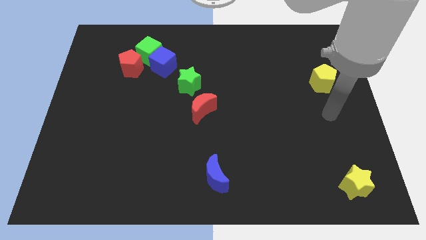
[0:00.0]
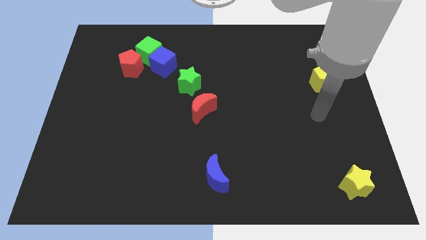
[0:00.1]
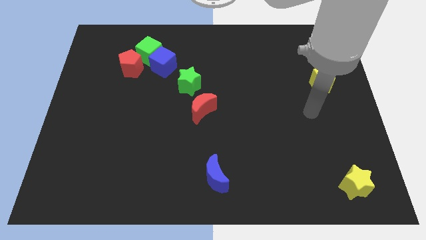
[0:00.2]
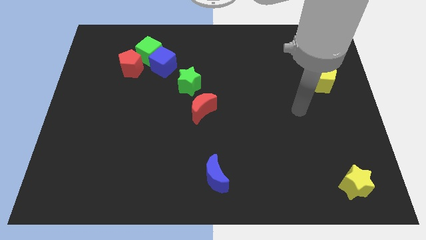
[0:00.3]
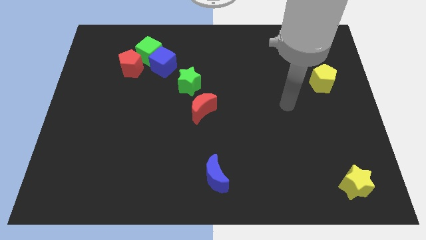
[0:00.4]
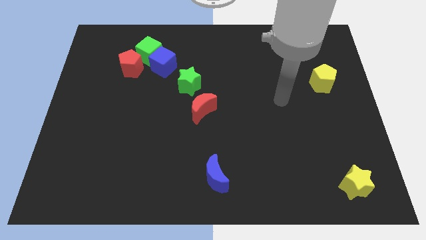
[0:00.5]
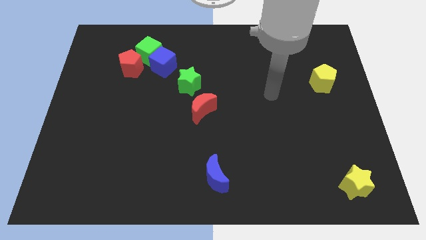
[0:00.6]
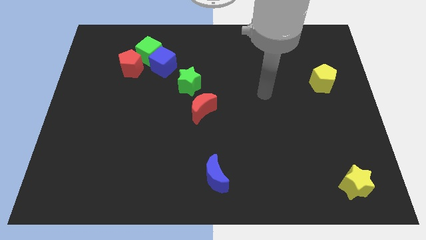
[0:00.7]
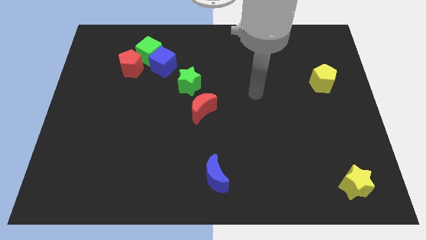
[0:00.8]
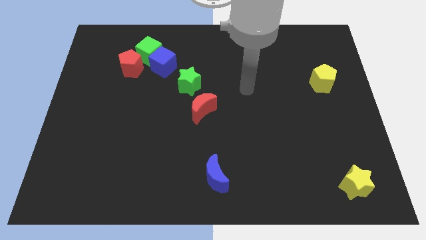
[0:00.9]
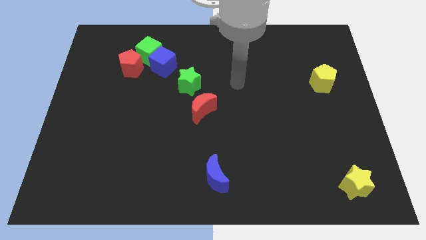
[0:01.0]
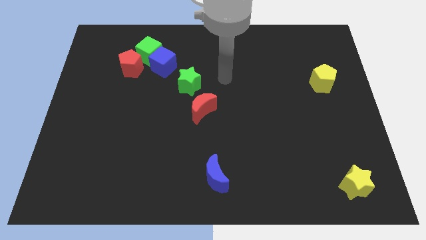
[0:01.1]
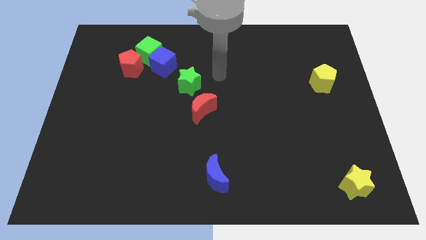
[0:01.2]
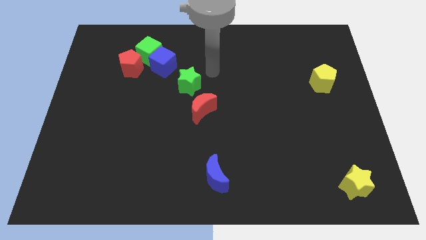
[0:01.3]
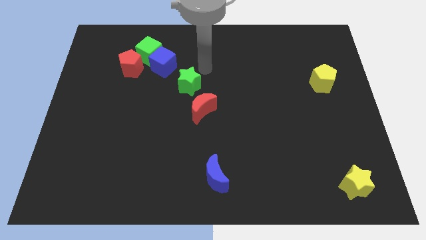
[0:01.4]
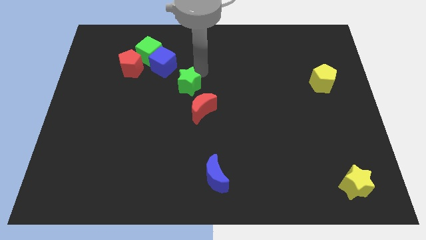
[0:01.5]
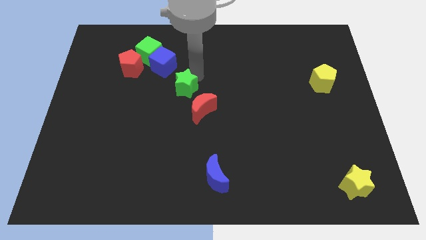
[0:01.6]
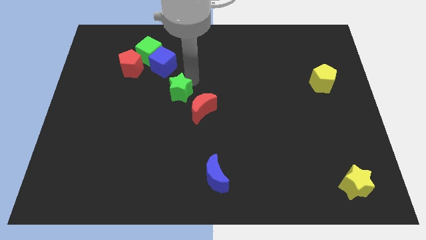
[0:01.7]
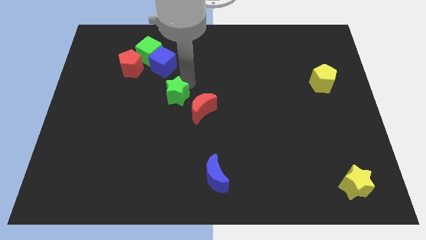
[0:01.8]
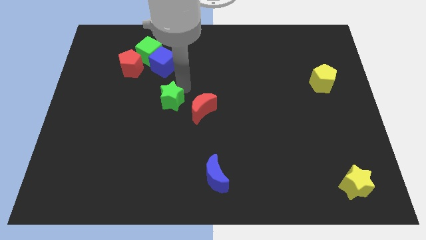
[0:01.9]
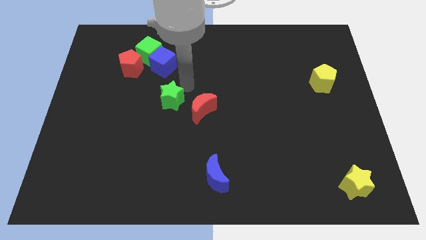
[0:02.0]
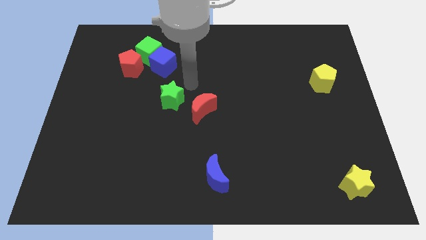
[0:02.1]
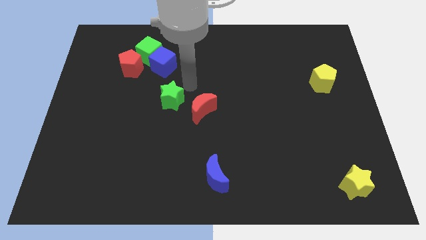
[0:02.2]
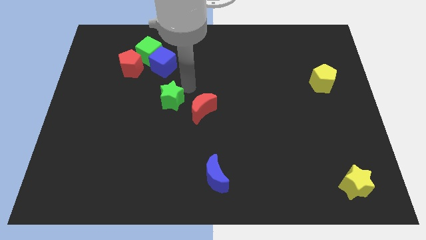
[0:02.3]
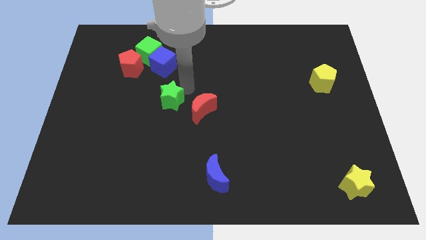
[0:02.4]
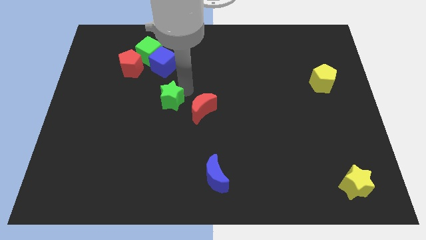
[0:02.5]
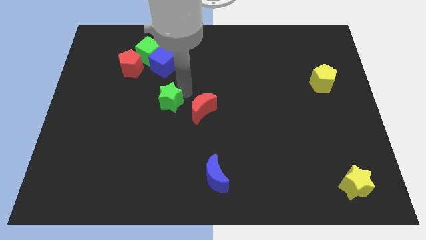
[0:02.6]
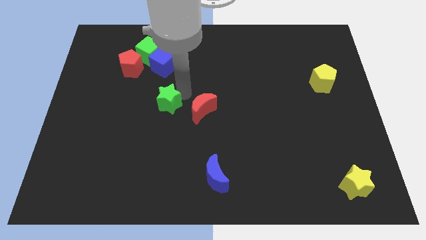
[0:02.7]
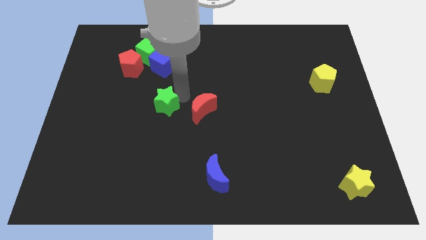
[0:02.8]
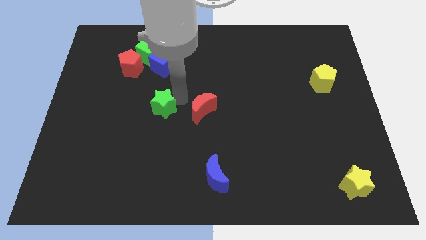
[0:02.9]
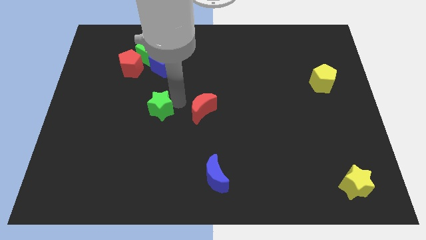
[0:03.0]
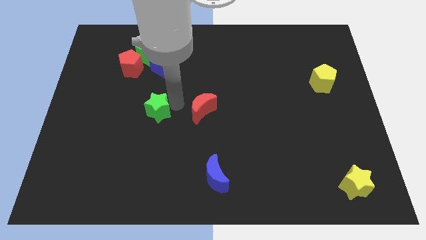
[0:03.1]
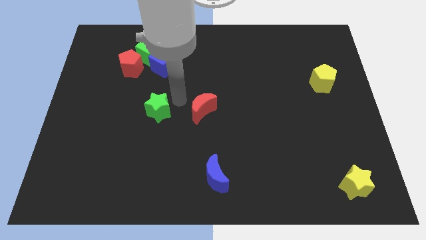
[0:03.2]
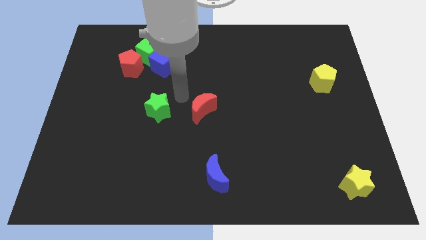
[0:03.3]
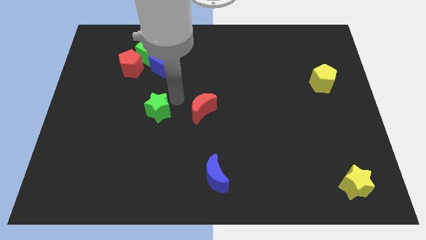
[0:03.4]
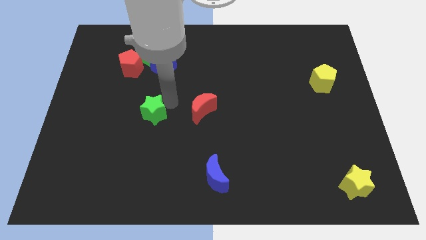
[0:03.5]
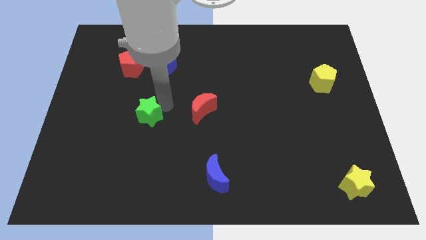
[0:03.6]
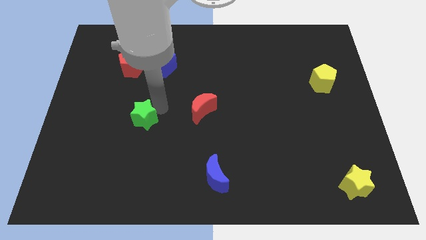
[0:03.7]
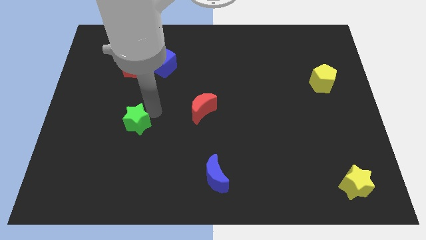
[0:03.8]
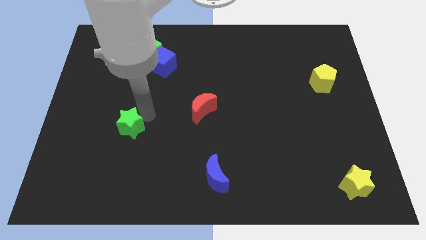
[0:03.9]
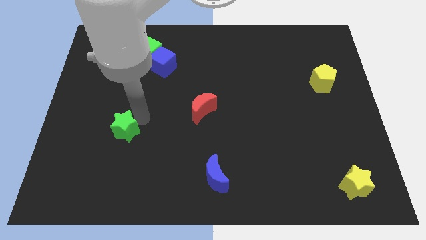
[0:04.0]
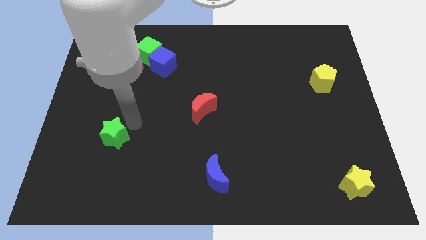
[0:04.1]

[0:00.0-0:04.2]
push the green star diagonally downwards and to the left

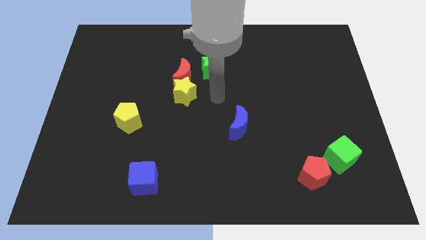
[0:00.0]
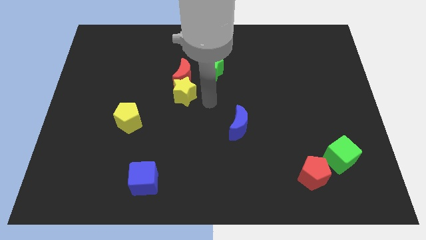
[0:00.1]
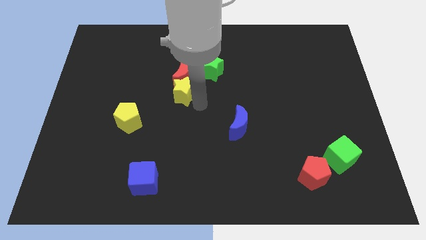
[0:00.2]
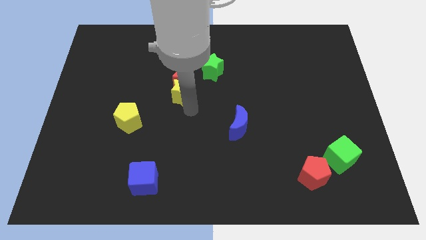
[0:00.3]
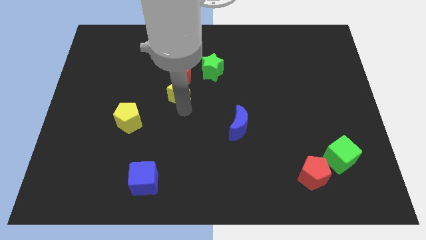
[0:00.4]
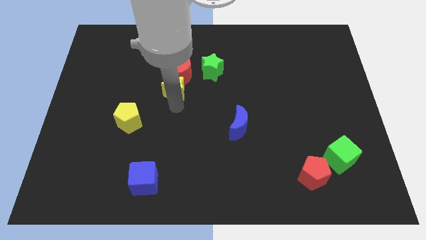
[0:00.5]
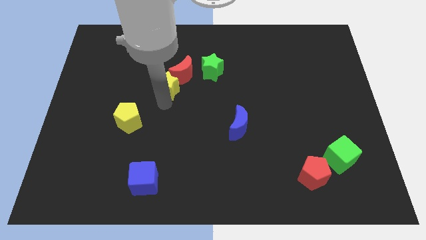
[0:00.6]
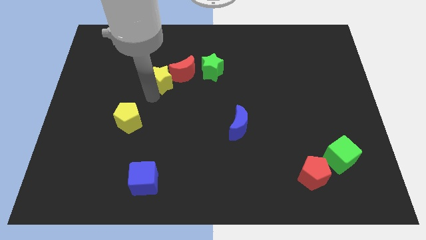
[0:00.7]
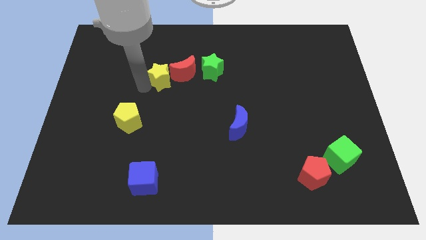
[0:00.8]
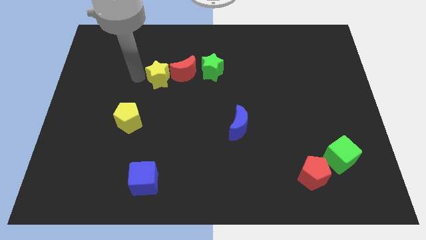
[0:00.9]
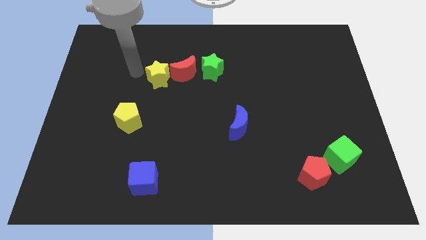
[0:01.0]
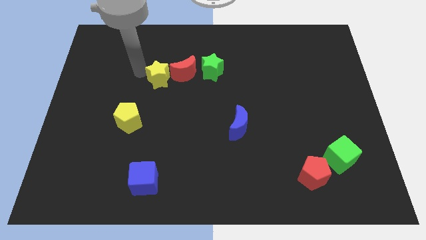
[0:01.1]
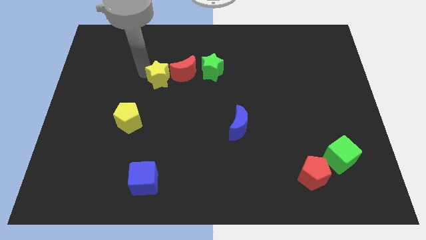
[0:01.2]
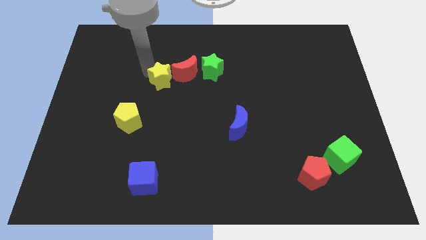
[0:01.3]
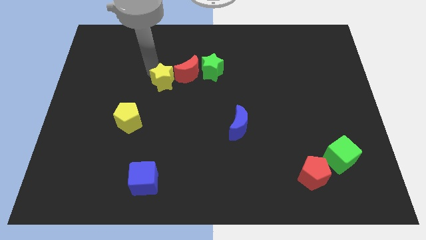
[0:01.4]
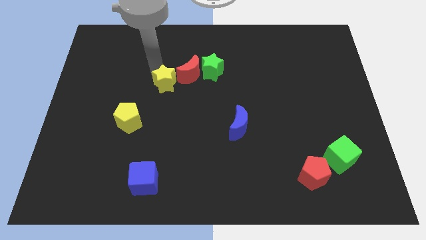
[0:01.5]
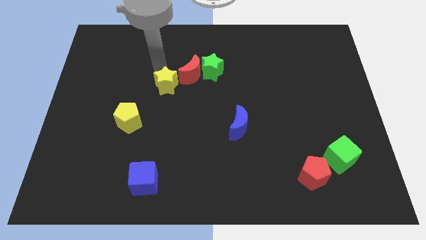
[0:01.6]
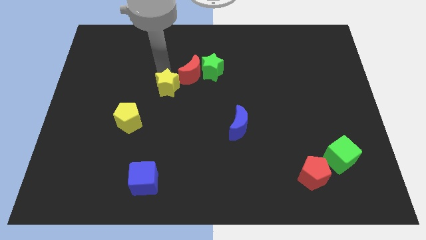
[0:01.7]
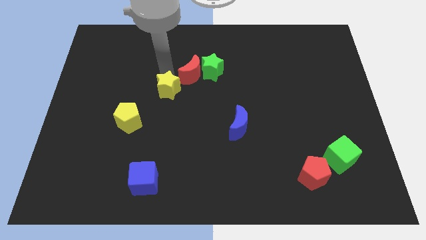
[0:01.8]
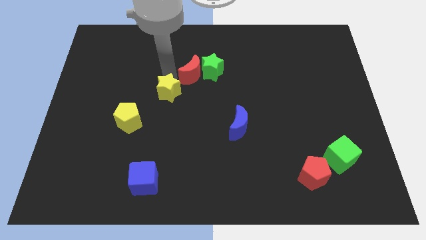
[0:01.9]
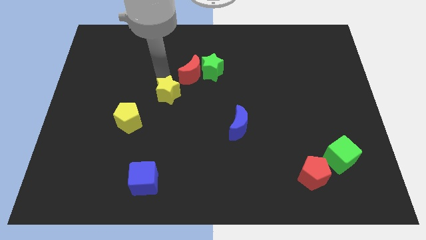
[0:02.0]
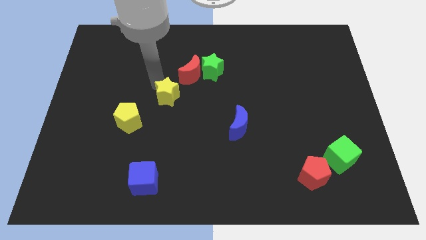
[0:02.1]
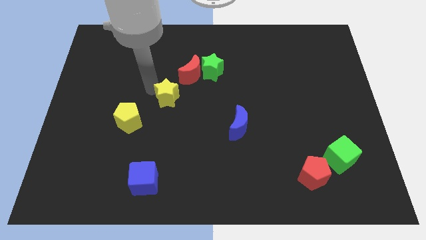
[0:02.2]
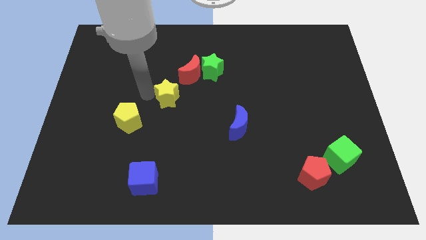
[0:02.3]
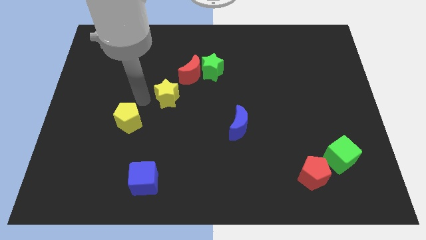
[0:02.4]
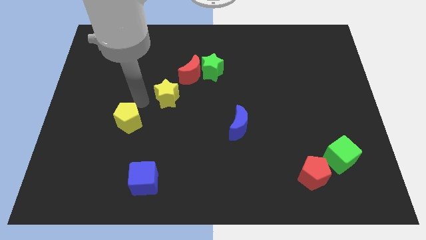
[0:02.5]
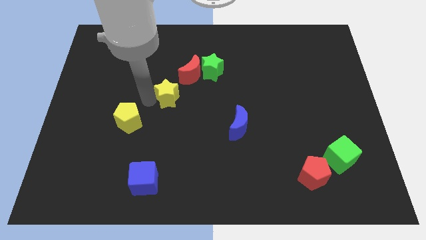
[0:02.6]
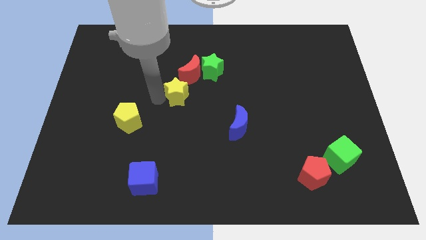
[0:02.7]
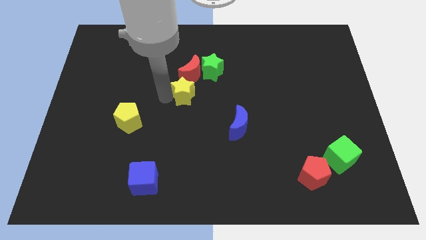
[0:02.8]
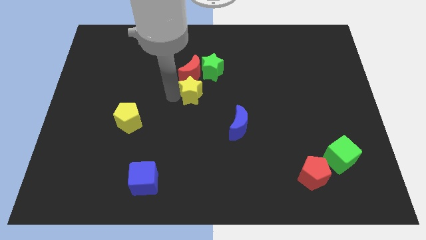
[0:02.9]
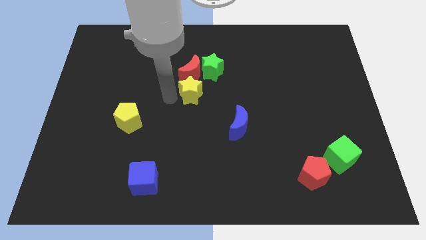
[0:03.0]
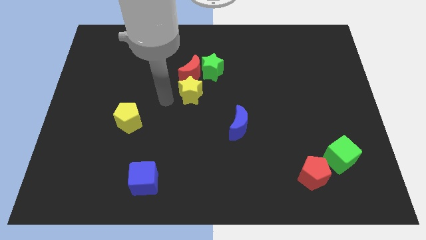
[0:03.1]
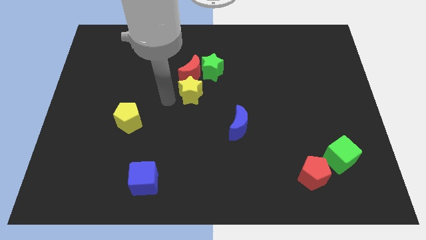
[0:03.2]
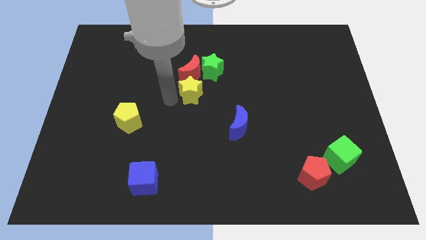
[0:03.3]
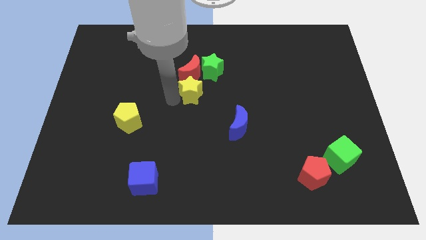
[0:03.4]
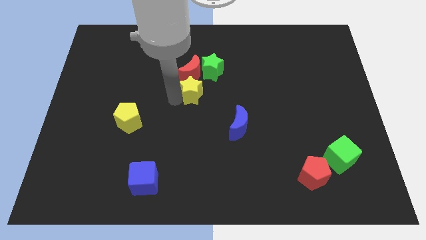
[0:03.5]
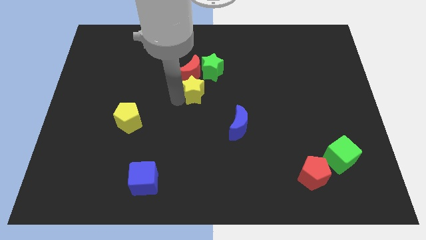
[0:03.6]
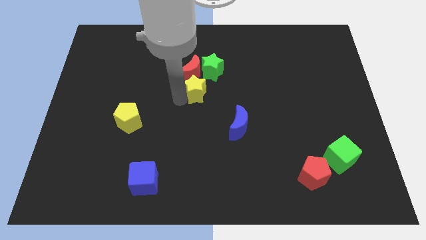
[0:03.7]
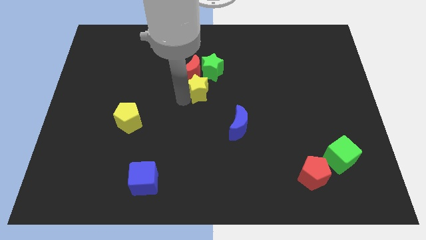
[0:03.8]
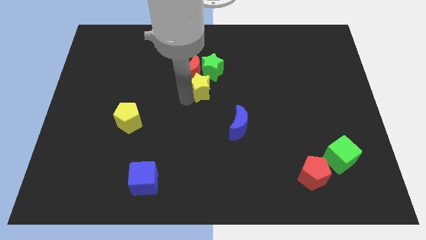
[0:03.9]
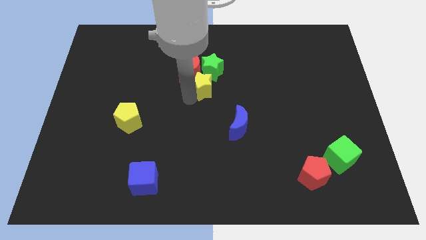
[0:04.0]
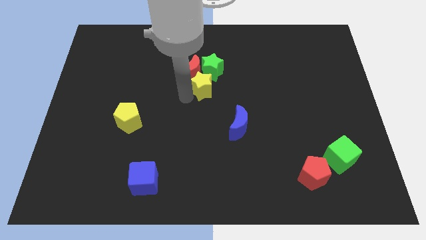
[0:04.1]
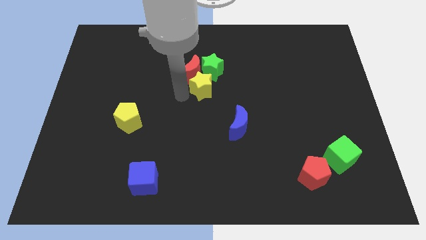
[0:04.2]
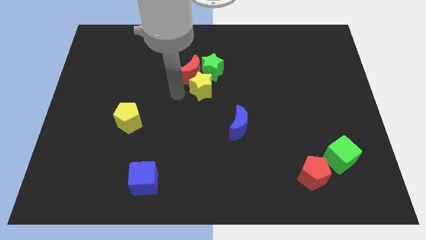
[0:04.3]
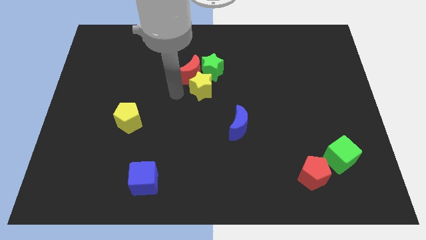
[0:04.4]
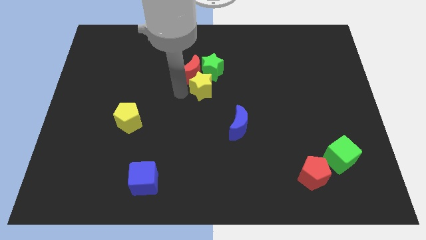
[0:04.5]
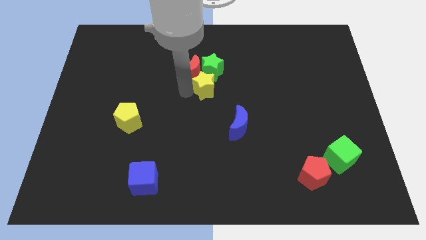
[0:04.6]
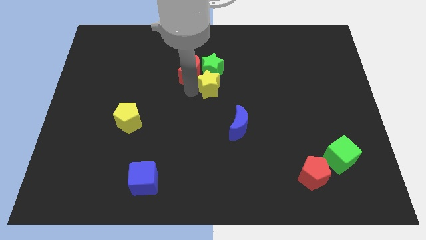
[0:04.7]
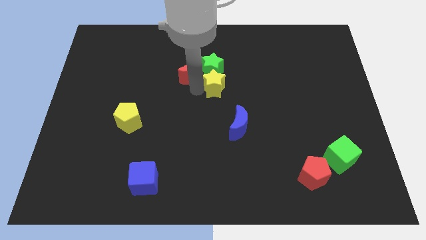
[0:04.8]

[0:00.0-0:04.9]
push the yellow star diagonally upwards and right a little bit
